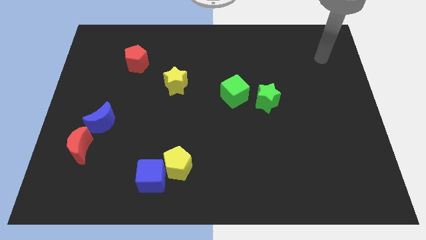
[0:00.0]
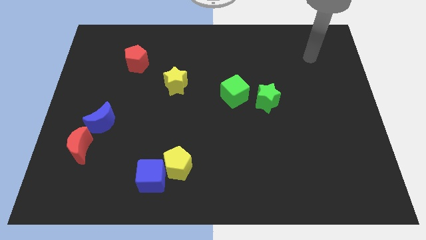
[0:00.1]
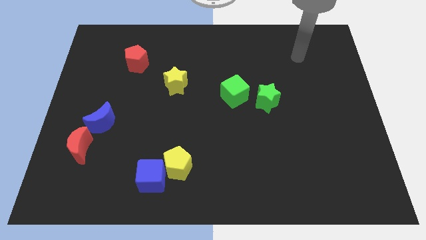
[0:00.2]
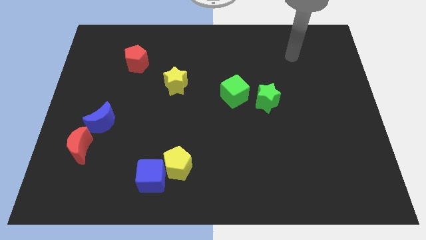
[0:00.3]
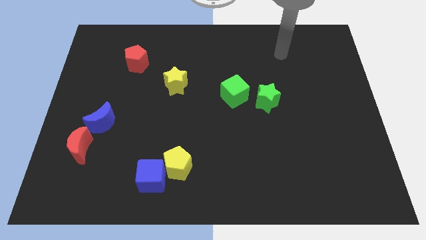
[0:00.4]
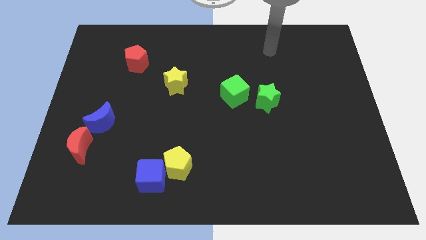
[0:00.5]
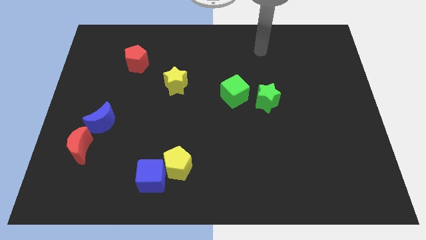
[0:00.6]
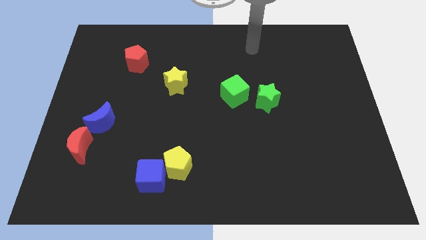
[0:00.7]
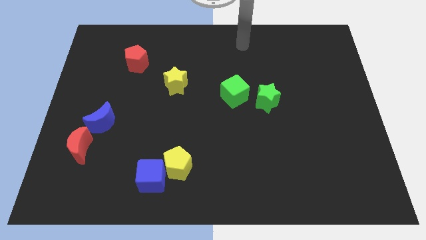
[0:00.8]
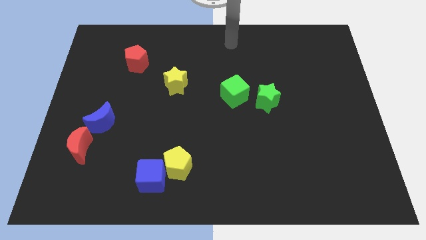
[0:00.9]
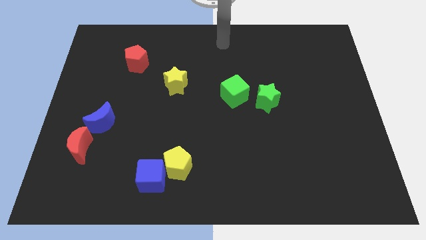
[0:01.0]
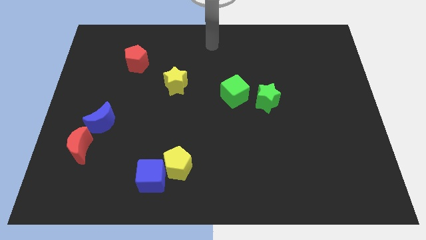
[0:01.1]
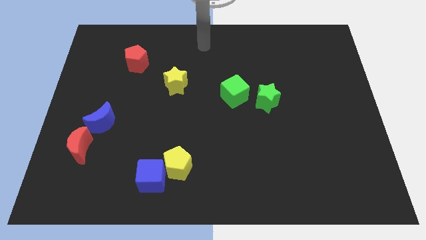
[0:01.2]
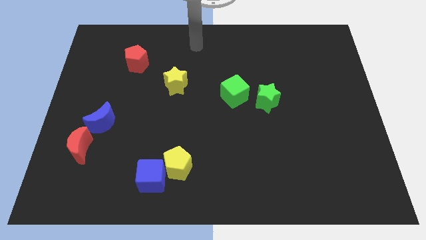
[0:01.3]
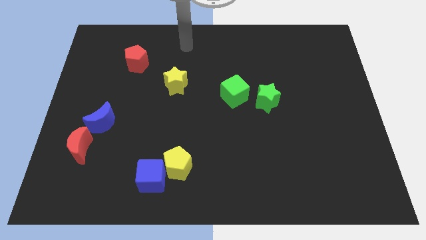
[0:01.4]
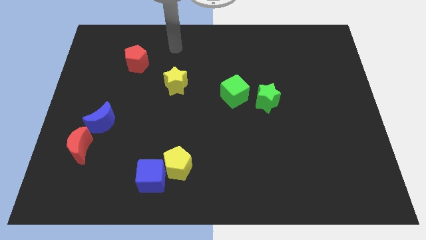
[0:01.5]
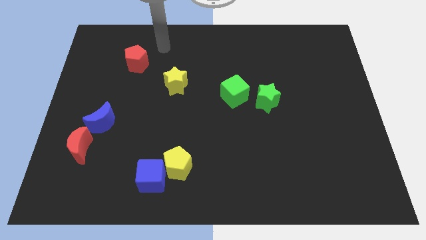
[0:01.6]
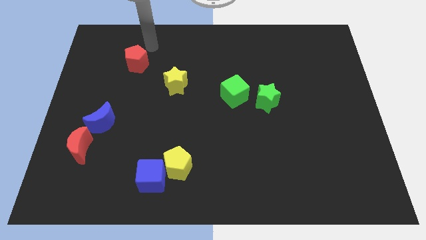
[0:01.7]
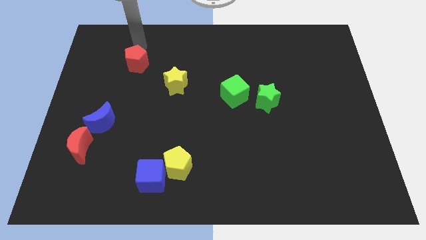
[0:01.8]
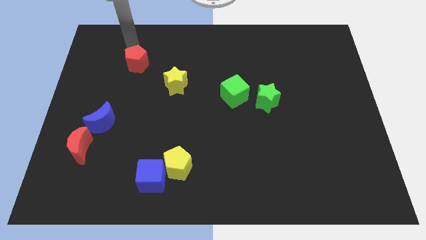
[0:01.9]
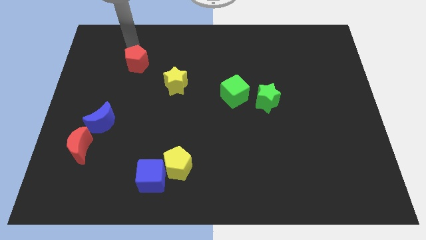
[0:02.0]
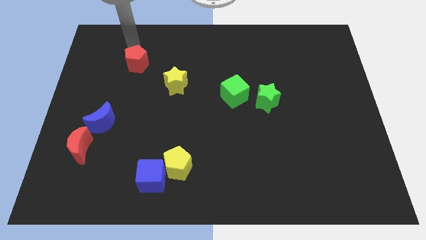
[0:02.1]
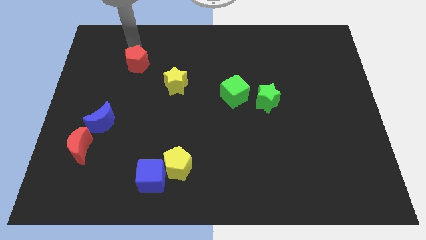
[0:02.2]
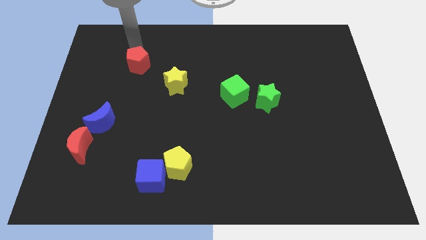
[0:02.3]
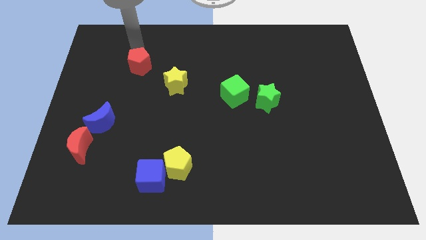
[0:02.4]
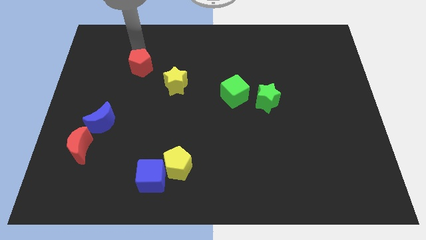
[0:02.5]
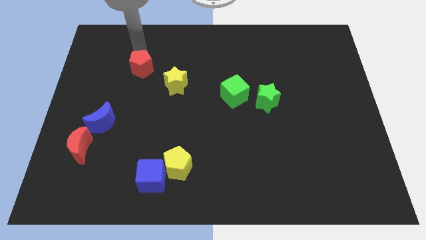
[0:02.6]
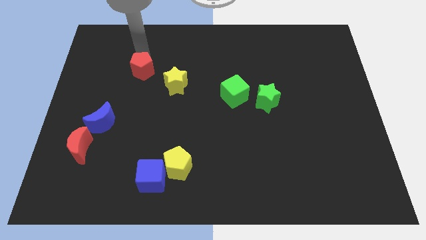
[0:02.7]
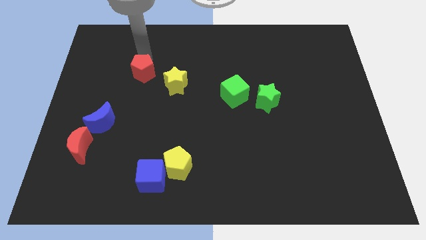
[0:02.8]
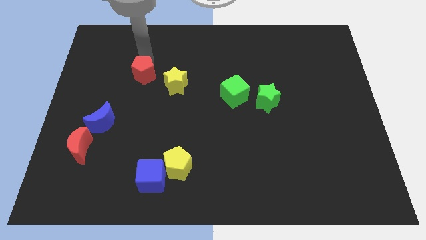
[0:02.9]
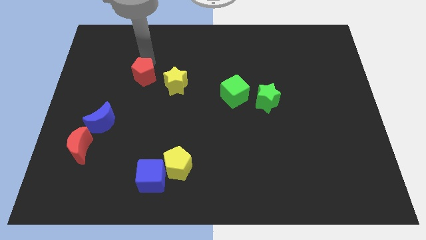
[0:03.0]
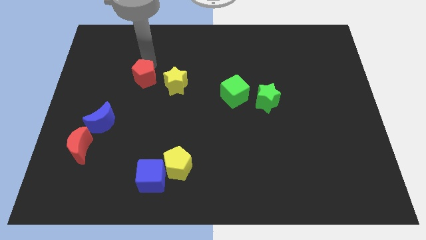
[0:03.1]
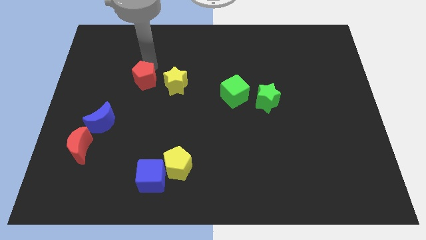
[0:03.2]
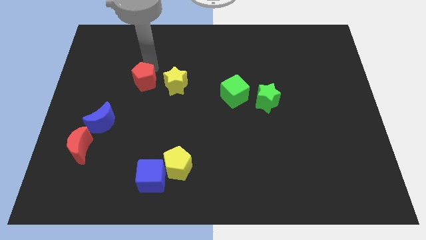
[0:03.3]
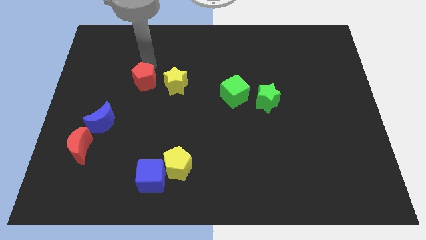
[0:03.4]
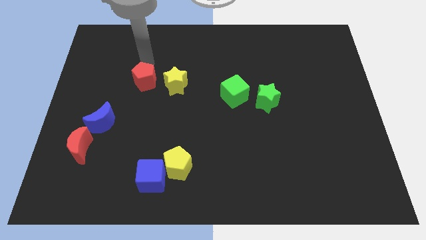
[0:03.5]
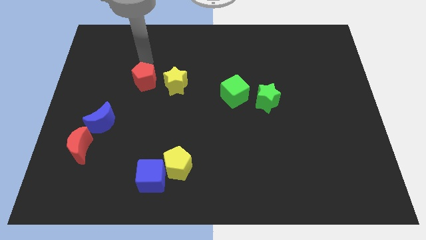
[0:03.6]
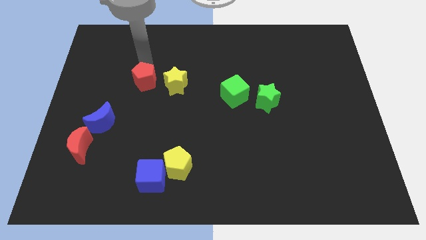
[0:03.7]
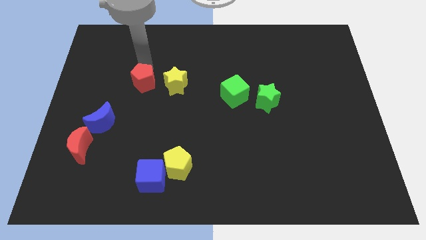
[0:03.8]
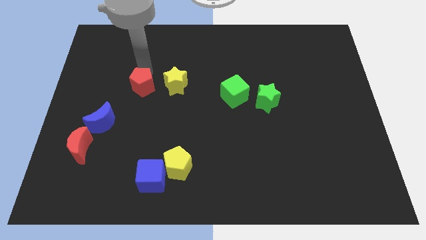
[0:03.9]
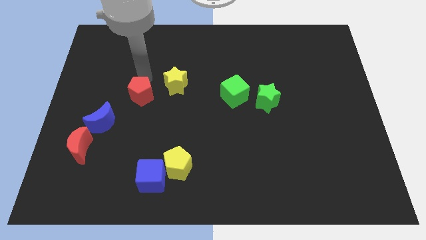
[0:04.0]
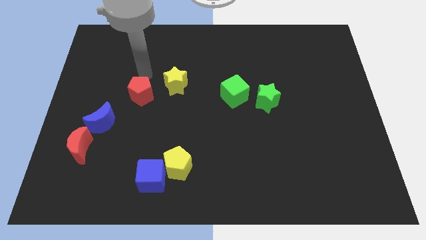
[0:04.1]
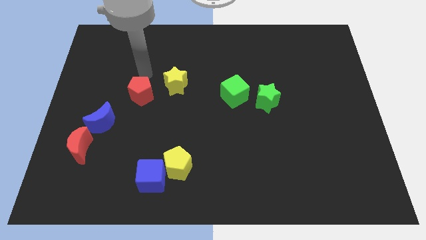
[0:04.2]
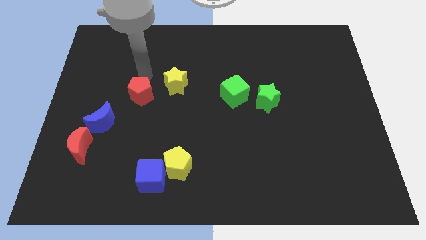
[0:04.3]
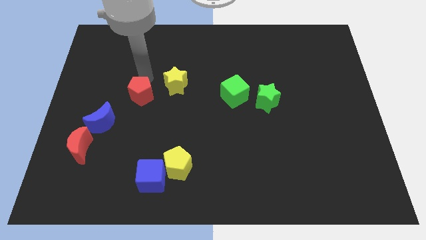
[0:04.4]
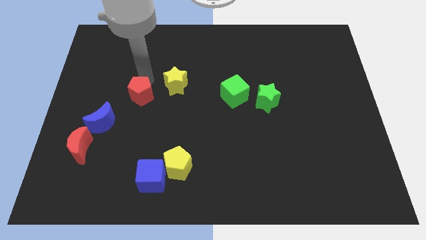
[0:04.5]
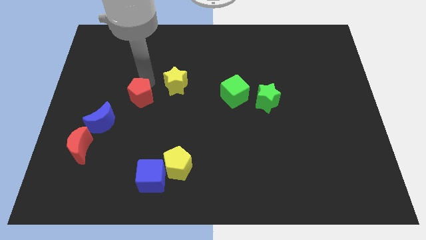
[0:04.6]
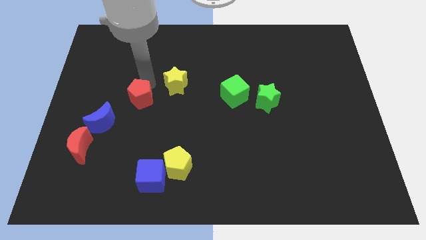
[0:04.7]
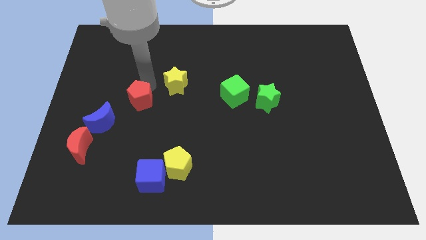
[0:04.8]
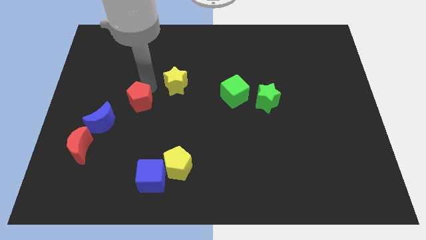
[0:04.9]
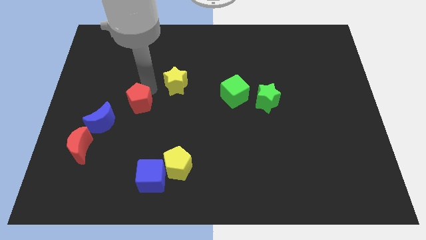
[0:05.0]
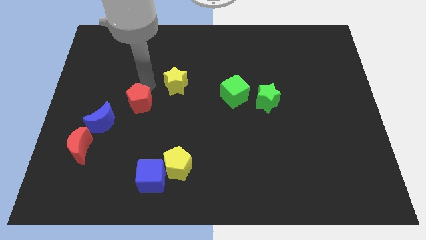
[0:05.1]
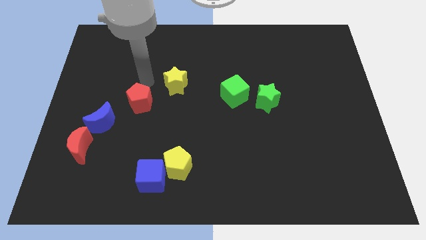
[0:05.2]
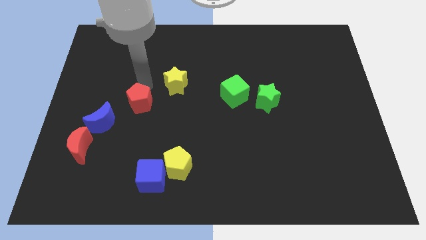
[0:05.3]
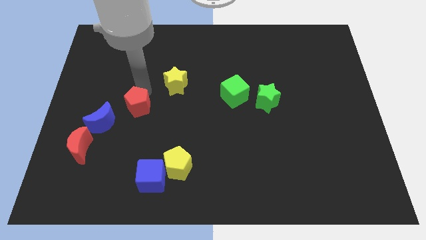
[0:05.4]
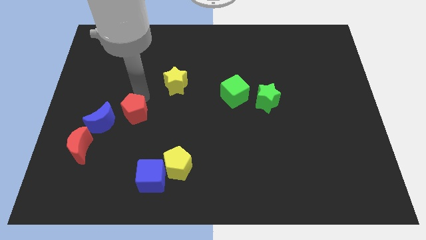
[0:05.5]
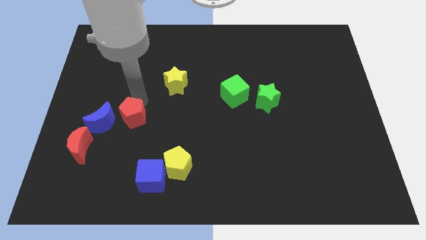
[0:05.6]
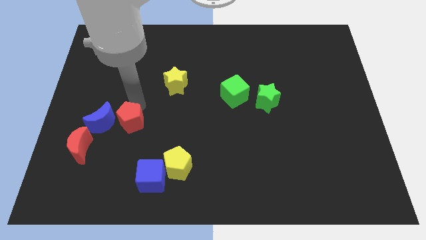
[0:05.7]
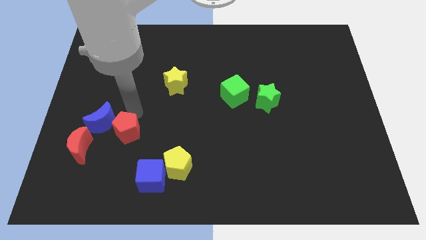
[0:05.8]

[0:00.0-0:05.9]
move the red pentagon downwards

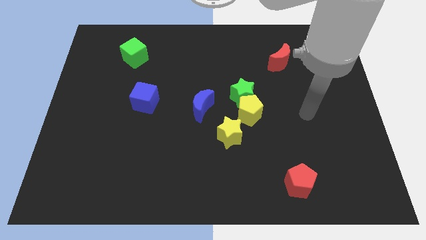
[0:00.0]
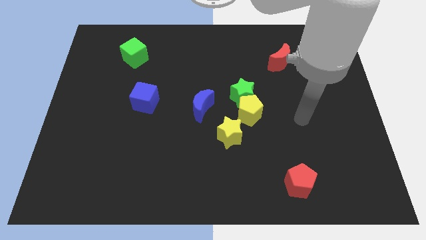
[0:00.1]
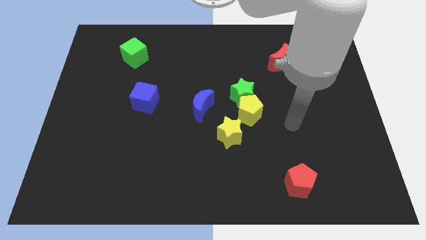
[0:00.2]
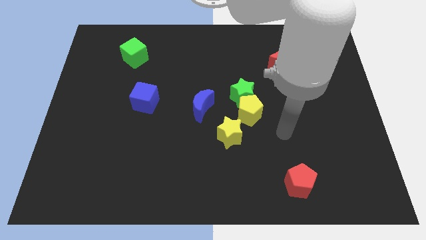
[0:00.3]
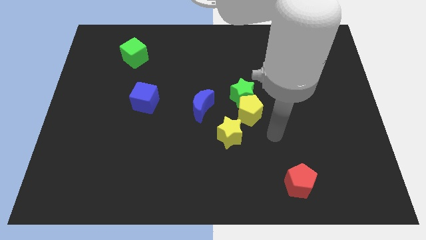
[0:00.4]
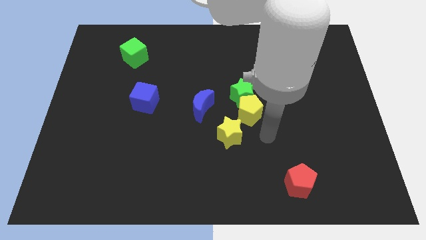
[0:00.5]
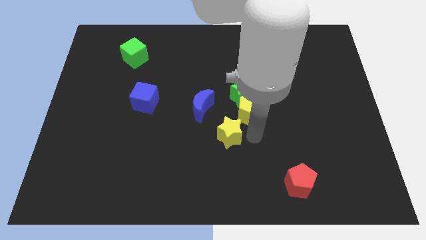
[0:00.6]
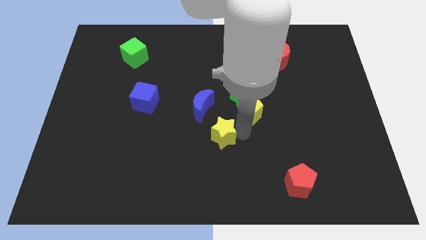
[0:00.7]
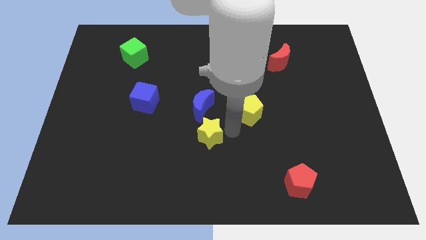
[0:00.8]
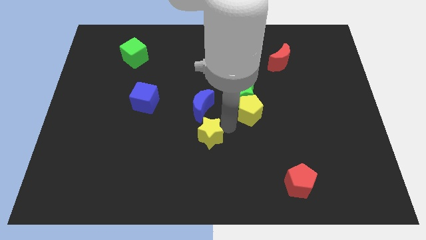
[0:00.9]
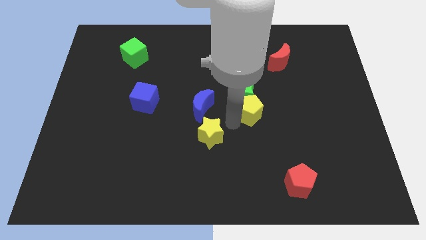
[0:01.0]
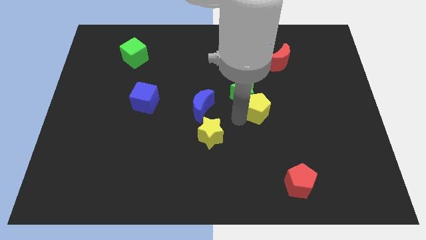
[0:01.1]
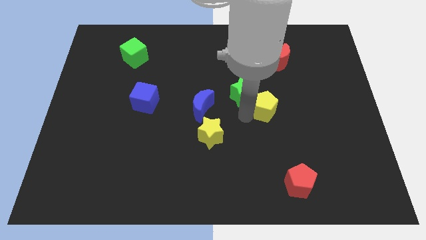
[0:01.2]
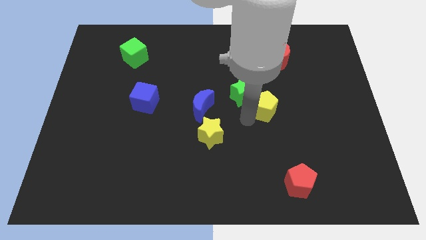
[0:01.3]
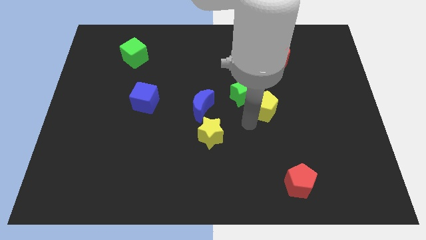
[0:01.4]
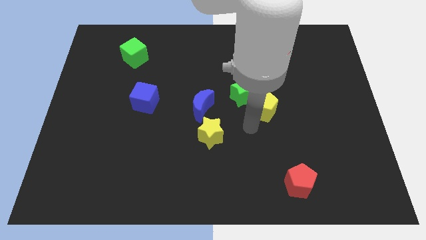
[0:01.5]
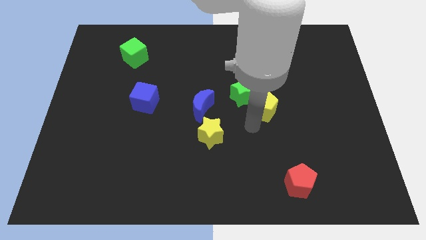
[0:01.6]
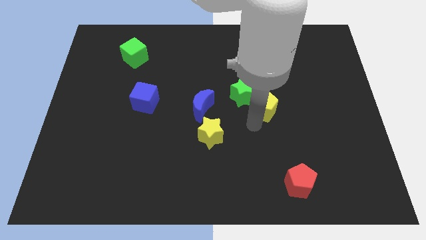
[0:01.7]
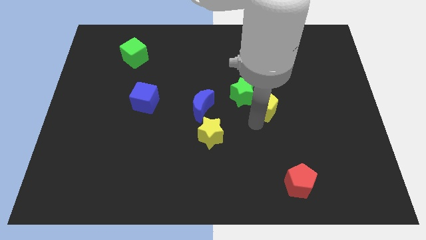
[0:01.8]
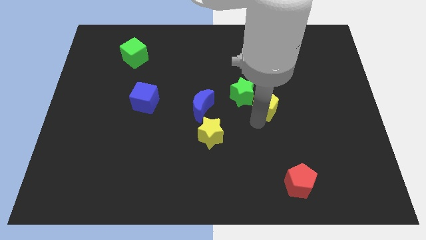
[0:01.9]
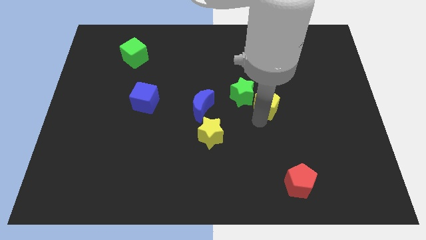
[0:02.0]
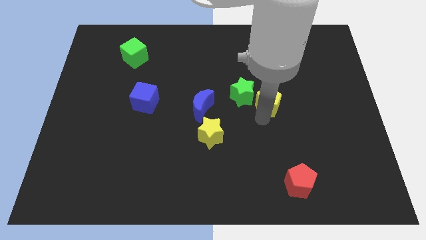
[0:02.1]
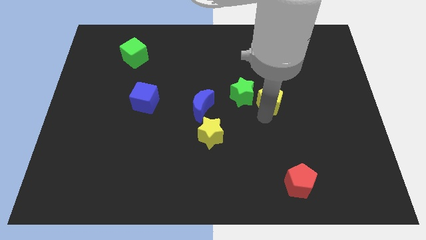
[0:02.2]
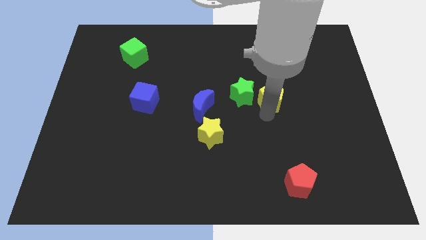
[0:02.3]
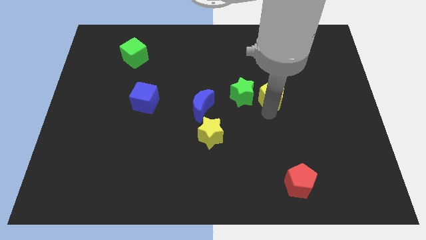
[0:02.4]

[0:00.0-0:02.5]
slightly move the yellow pentagon diagonally up and right
